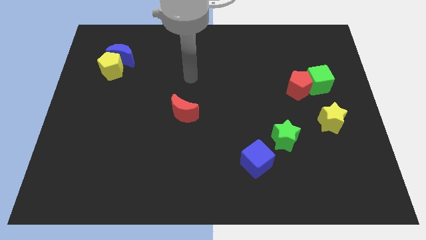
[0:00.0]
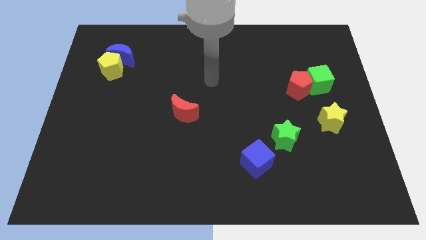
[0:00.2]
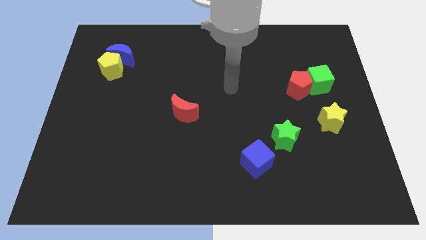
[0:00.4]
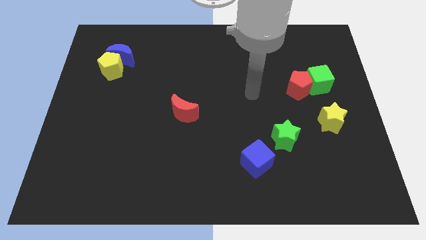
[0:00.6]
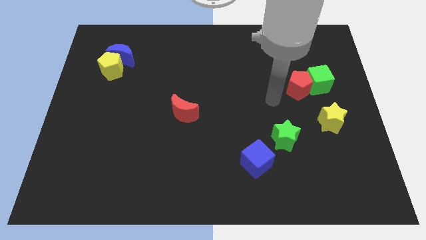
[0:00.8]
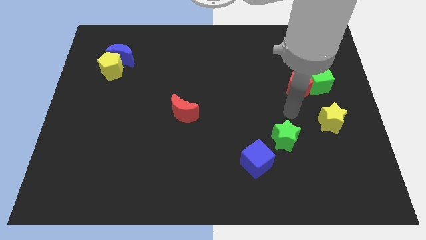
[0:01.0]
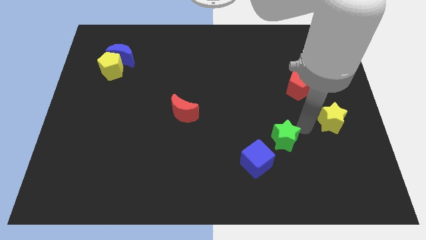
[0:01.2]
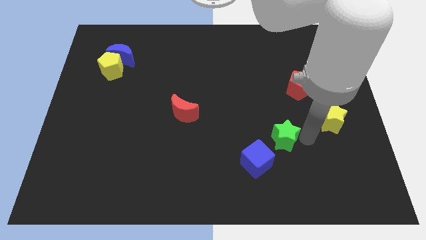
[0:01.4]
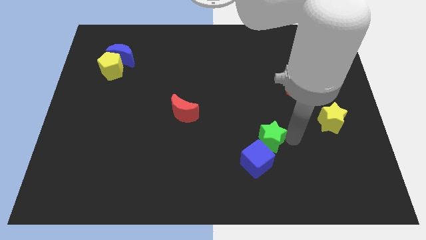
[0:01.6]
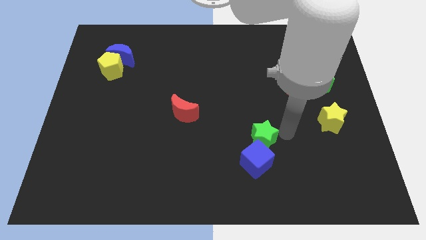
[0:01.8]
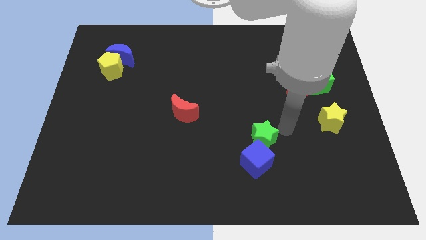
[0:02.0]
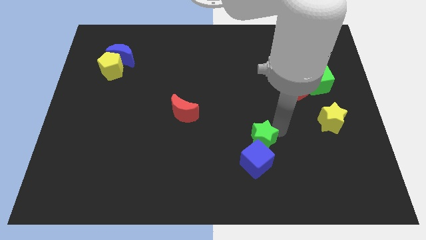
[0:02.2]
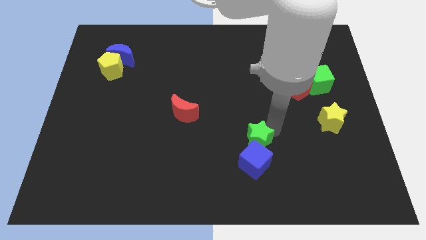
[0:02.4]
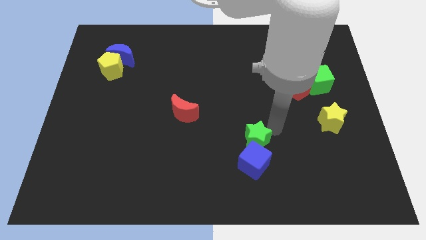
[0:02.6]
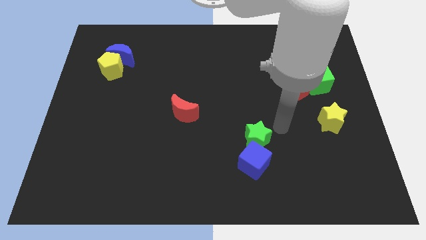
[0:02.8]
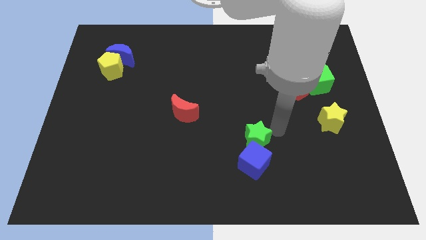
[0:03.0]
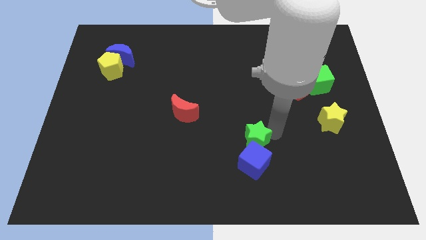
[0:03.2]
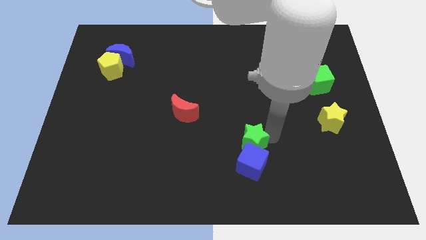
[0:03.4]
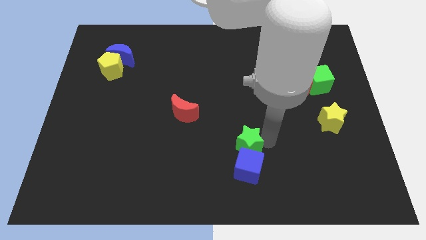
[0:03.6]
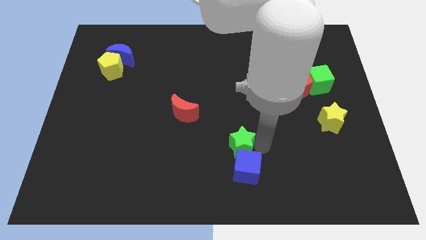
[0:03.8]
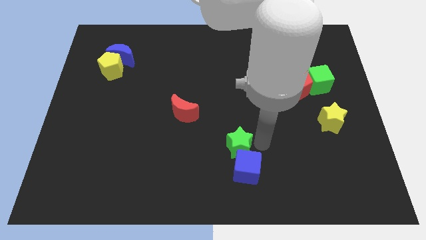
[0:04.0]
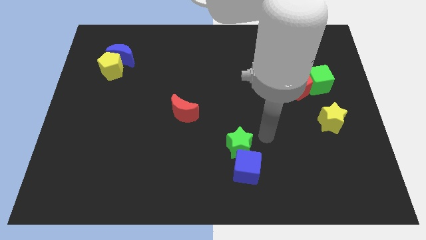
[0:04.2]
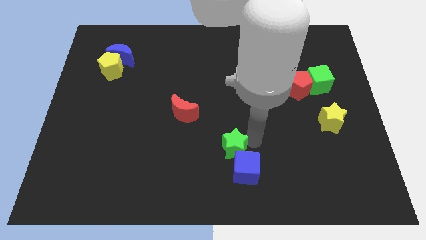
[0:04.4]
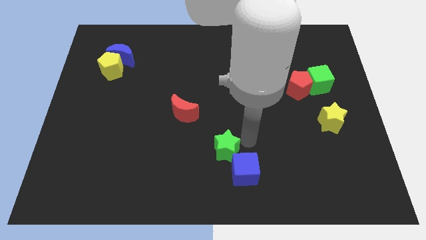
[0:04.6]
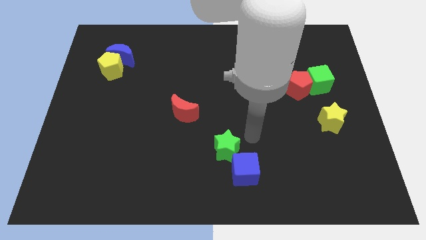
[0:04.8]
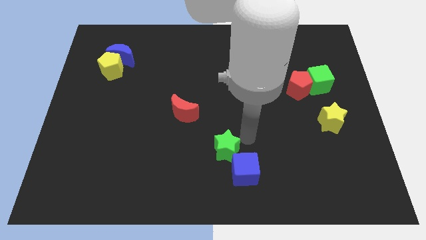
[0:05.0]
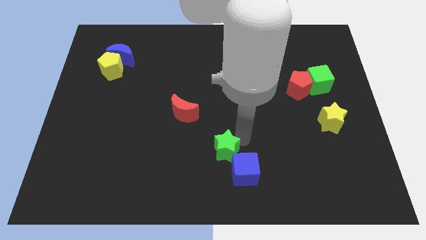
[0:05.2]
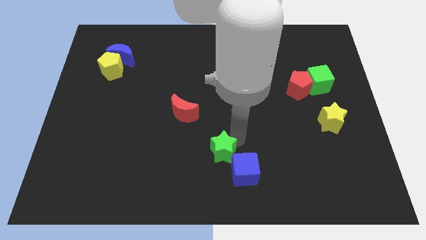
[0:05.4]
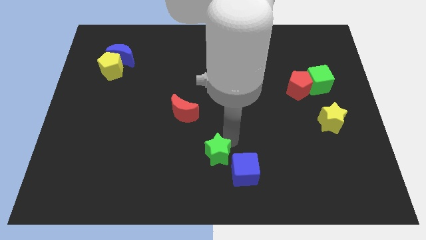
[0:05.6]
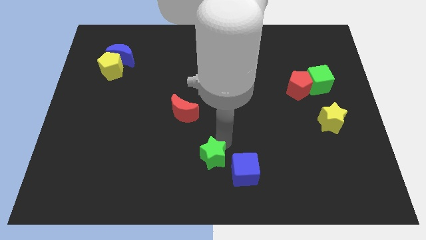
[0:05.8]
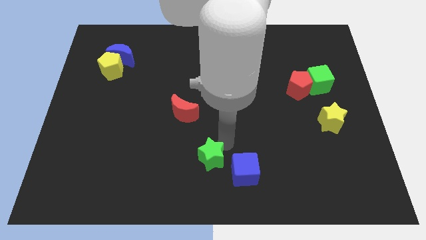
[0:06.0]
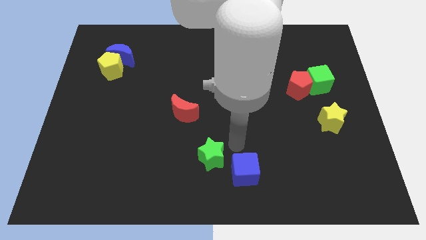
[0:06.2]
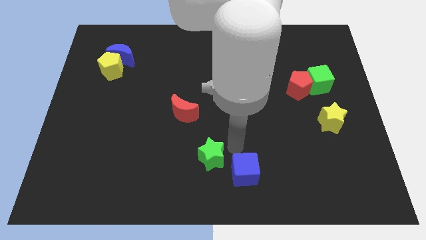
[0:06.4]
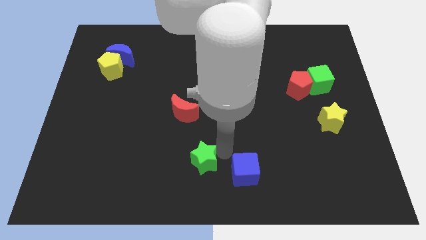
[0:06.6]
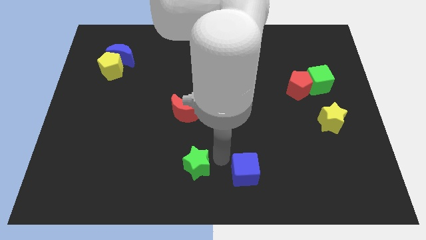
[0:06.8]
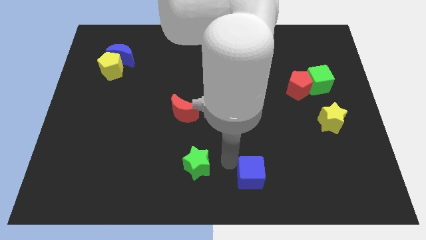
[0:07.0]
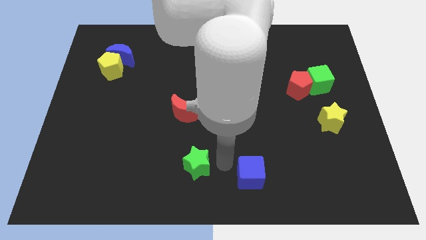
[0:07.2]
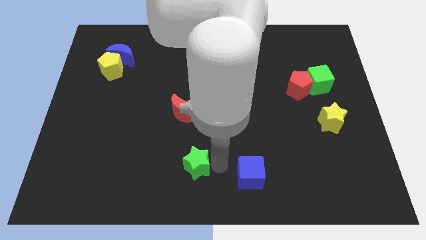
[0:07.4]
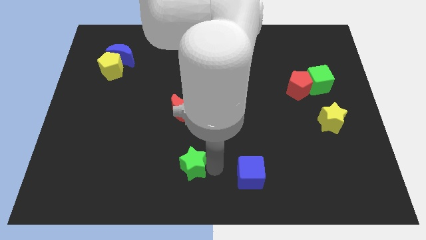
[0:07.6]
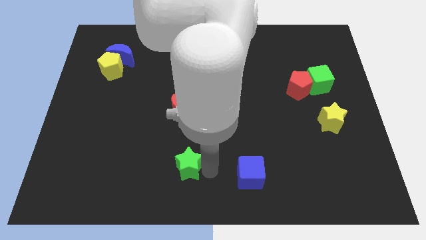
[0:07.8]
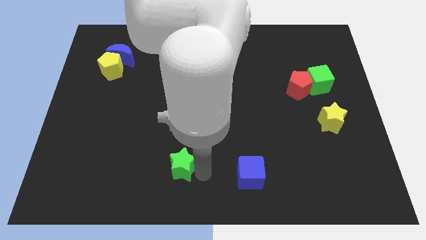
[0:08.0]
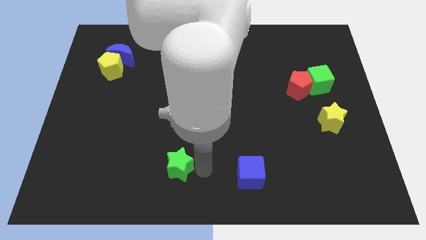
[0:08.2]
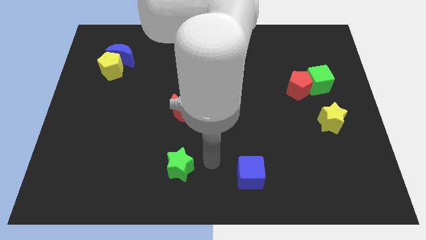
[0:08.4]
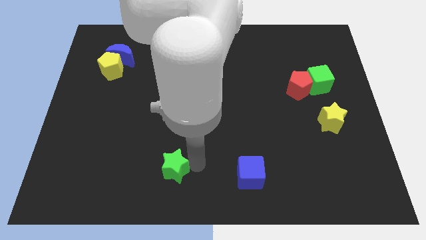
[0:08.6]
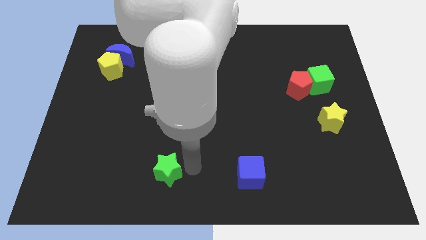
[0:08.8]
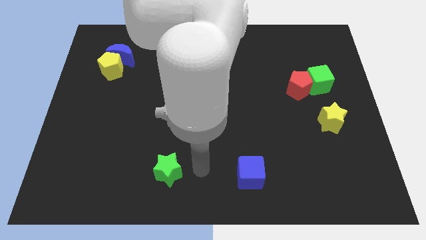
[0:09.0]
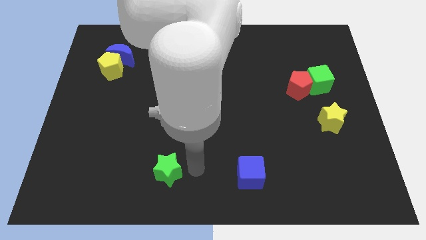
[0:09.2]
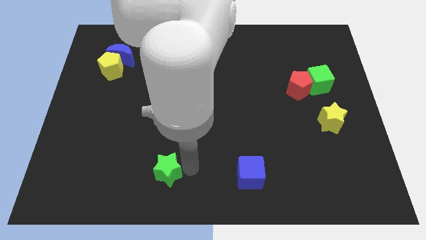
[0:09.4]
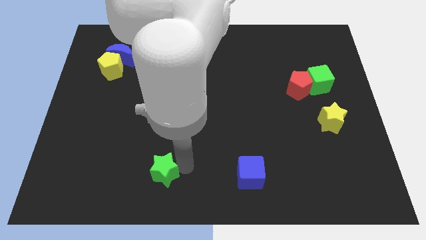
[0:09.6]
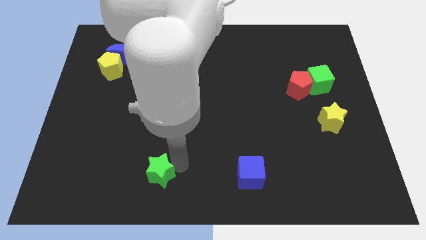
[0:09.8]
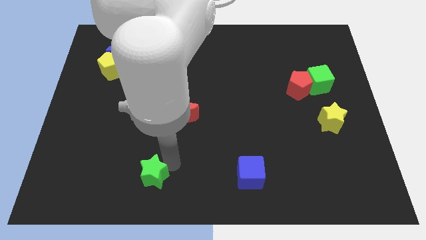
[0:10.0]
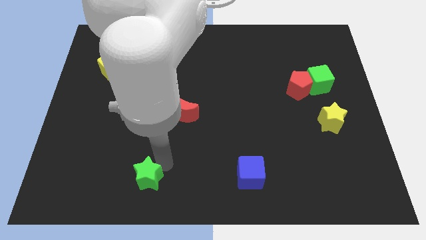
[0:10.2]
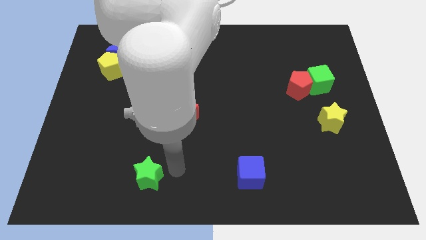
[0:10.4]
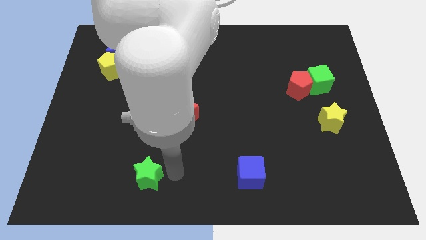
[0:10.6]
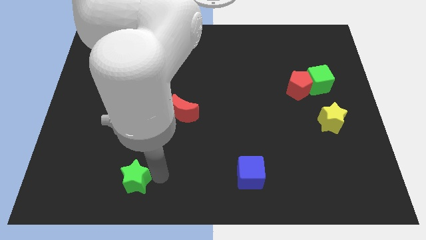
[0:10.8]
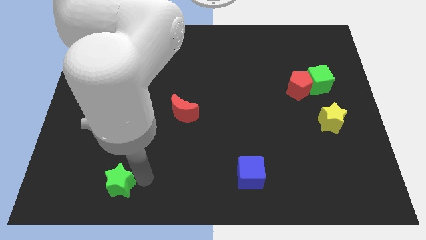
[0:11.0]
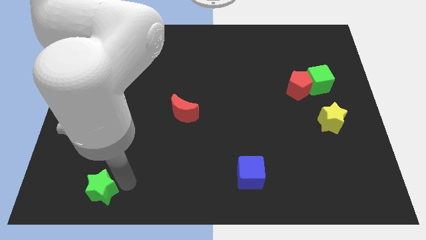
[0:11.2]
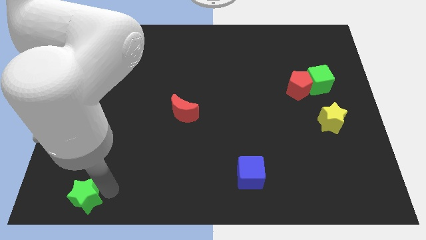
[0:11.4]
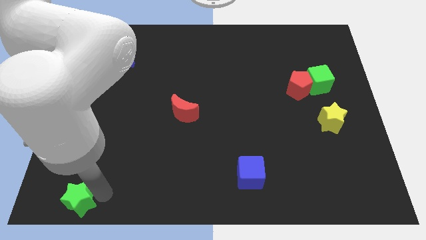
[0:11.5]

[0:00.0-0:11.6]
put the green star to the bottom left

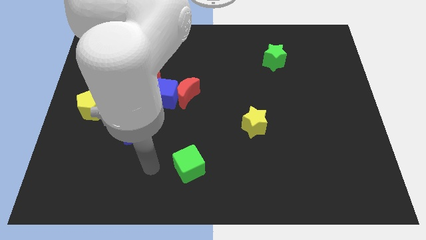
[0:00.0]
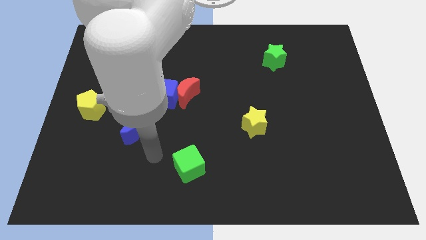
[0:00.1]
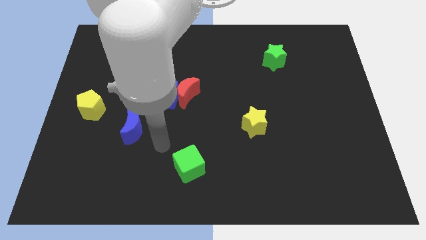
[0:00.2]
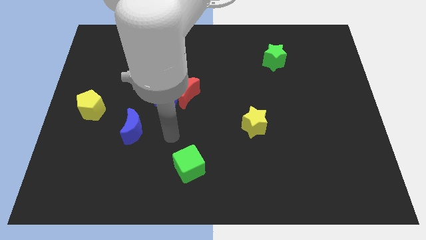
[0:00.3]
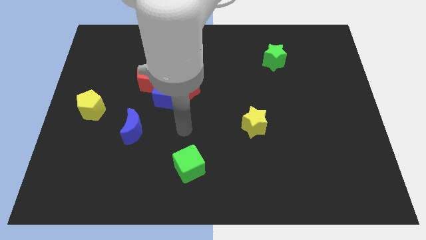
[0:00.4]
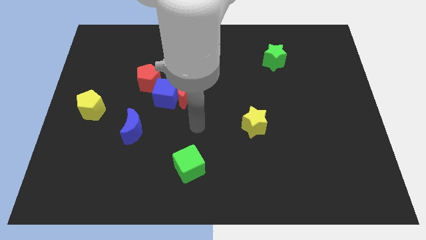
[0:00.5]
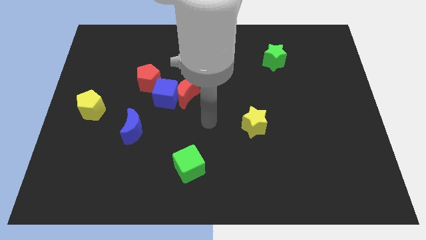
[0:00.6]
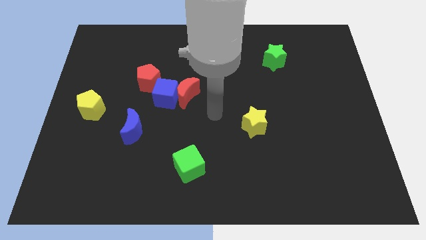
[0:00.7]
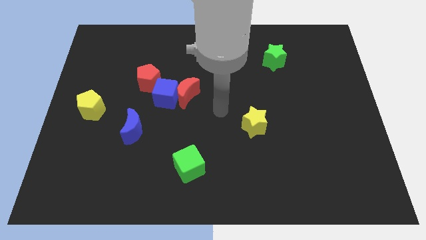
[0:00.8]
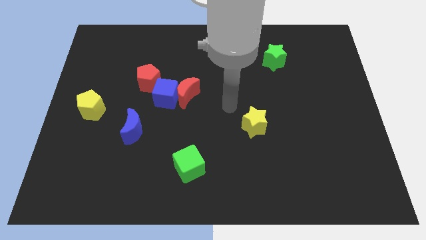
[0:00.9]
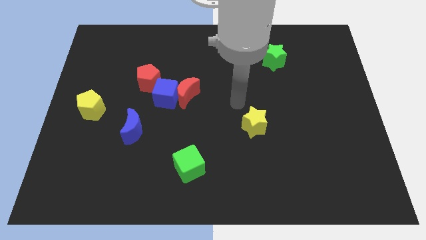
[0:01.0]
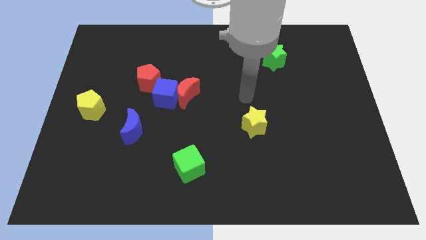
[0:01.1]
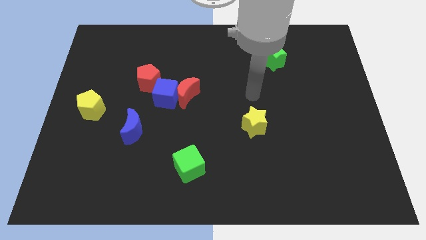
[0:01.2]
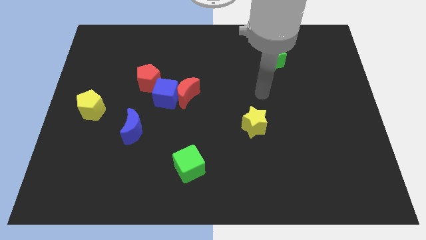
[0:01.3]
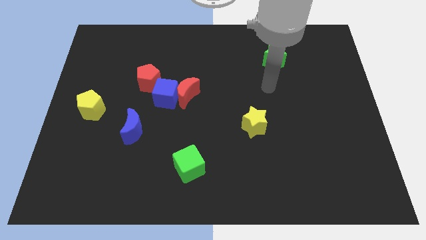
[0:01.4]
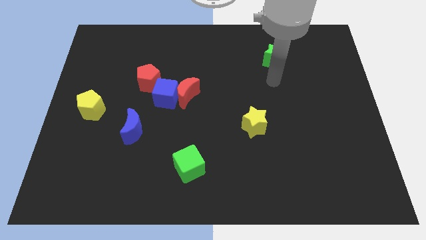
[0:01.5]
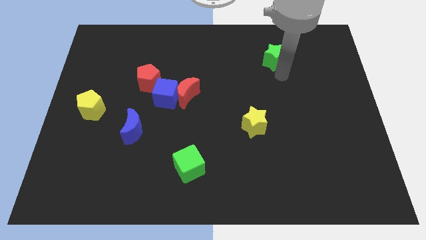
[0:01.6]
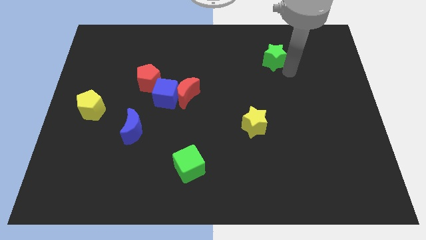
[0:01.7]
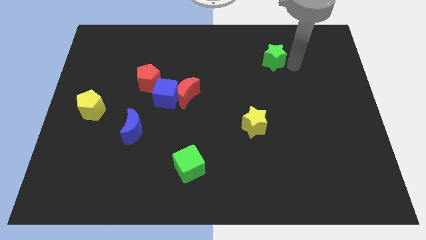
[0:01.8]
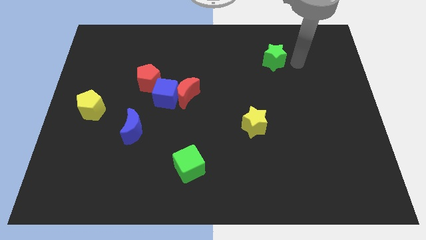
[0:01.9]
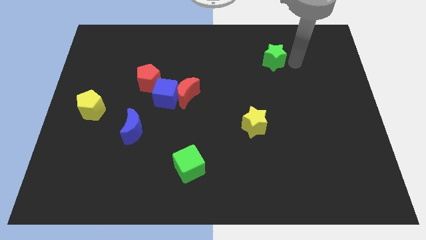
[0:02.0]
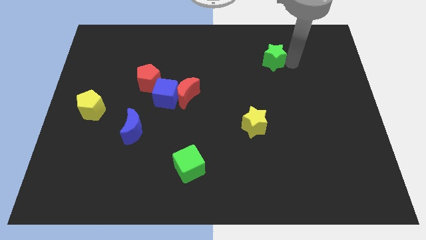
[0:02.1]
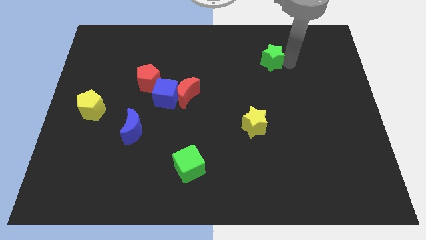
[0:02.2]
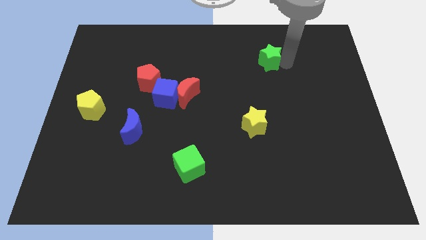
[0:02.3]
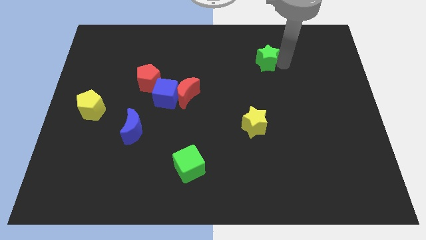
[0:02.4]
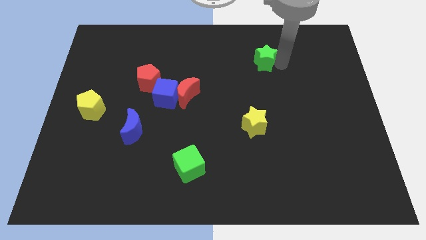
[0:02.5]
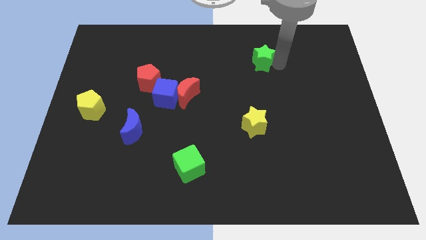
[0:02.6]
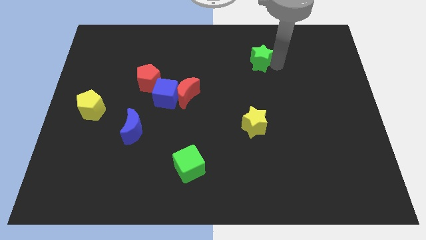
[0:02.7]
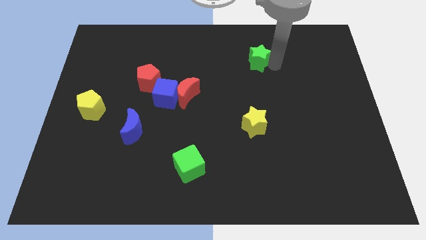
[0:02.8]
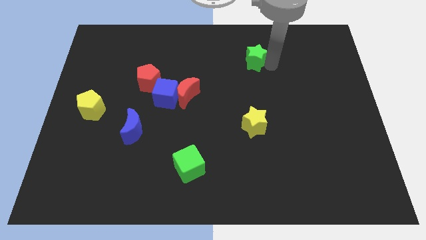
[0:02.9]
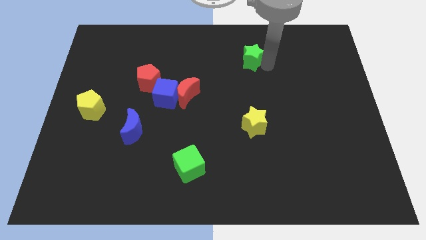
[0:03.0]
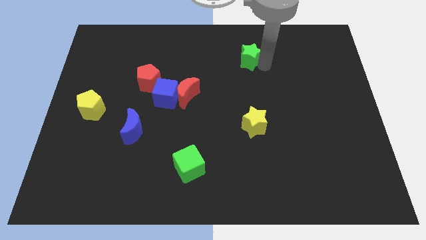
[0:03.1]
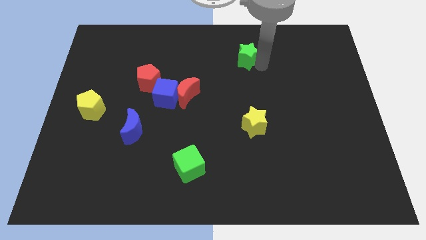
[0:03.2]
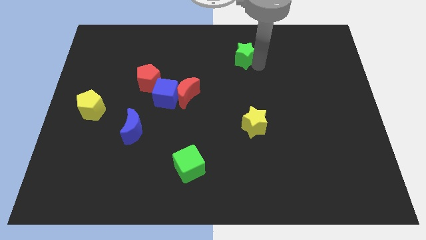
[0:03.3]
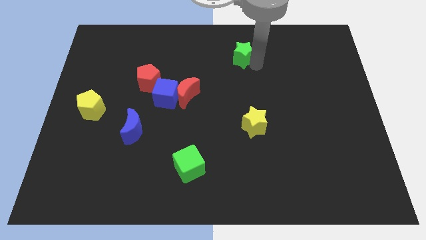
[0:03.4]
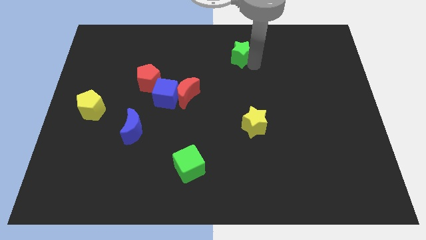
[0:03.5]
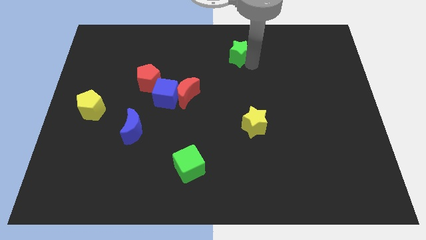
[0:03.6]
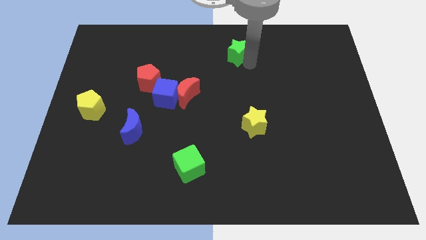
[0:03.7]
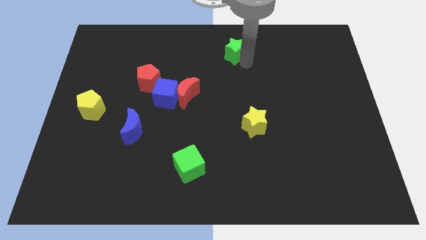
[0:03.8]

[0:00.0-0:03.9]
move the green star to the top side
